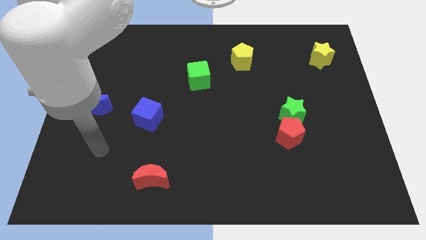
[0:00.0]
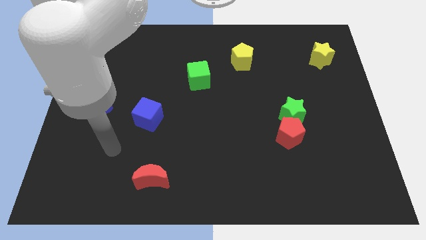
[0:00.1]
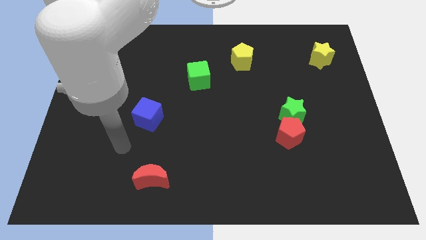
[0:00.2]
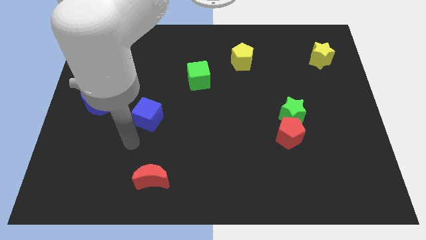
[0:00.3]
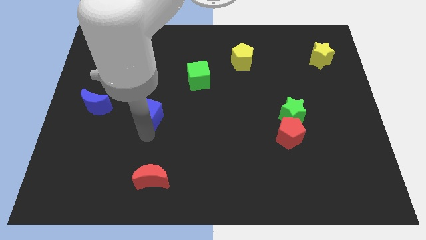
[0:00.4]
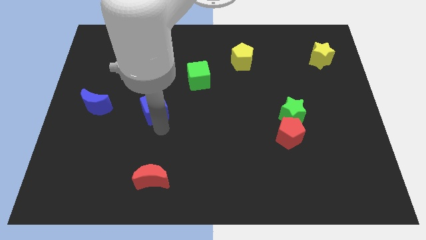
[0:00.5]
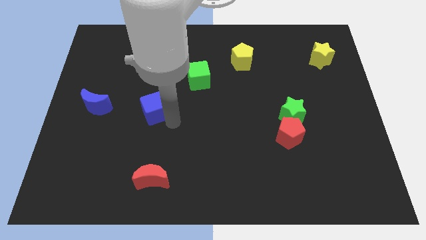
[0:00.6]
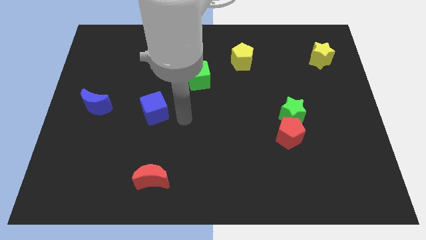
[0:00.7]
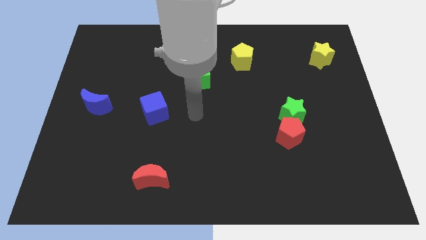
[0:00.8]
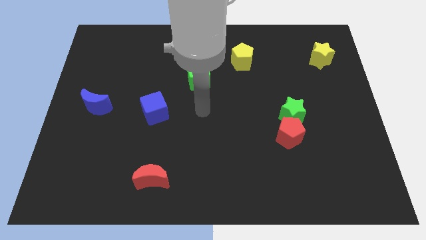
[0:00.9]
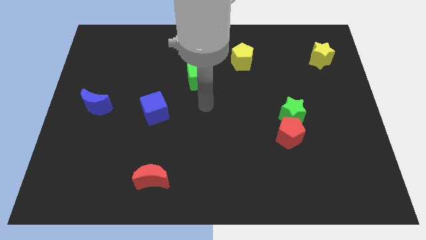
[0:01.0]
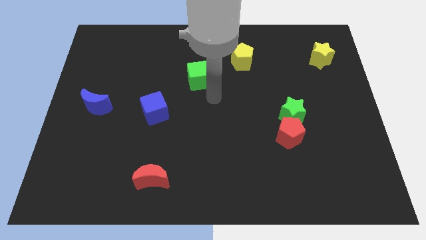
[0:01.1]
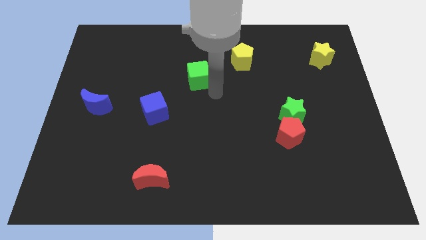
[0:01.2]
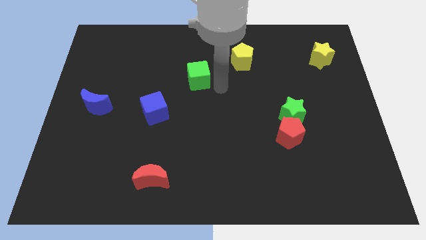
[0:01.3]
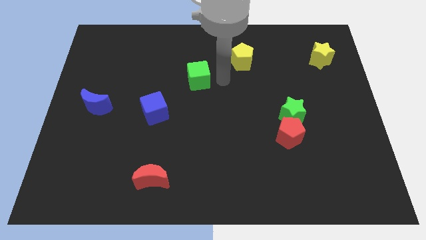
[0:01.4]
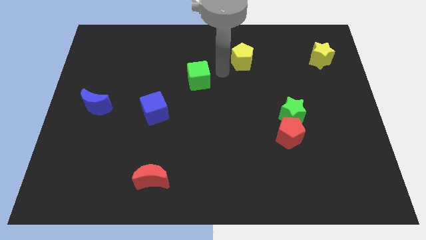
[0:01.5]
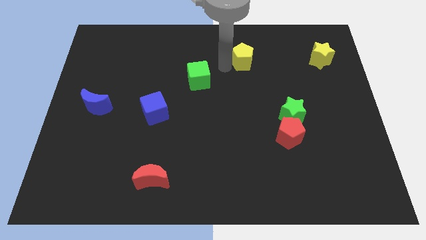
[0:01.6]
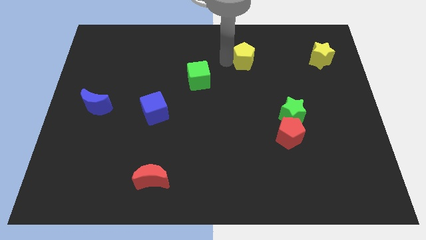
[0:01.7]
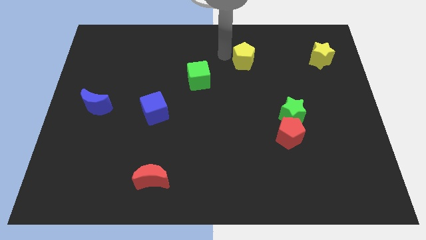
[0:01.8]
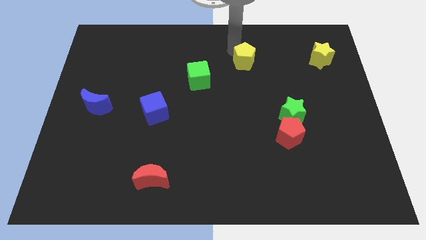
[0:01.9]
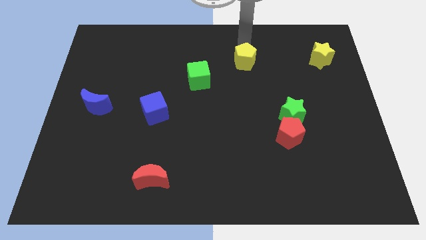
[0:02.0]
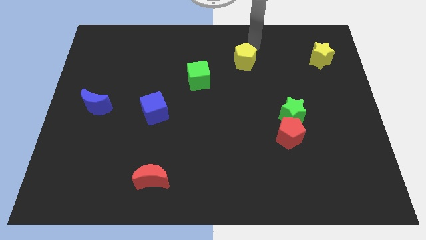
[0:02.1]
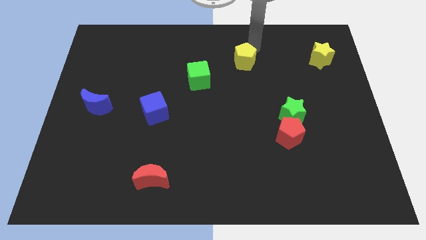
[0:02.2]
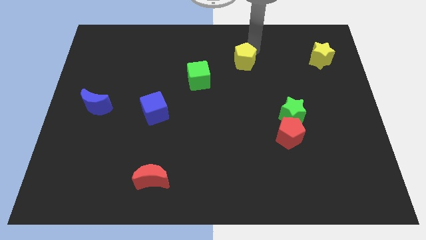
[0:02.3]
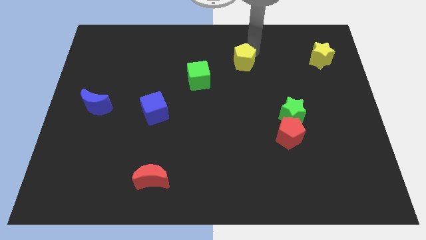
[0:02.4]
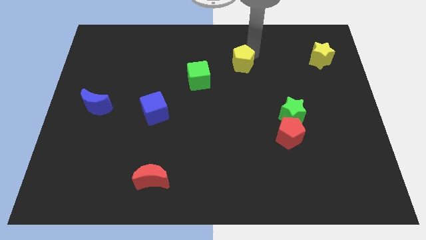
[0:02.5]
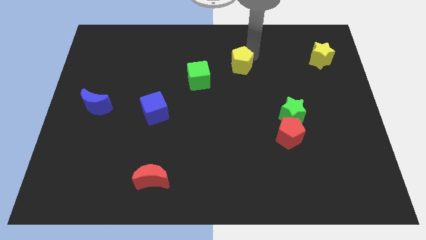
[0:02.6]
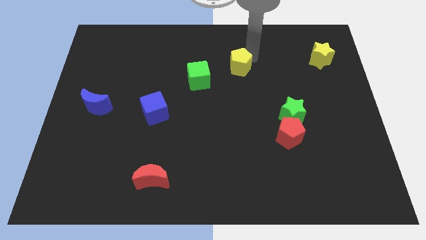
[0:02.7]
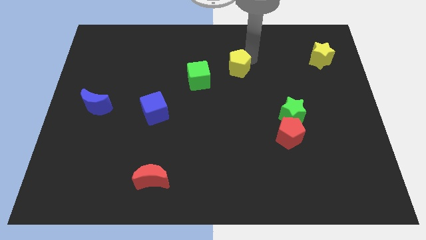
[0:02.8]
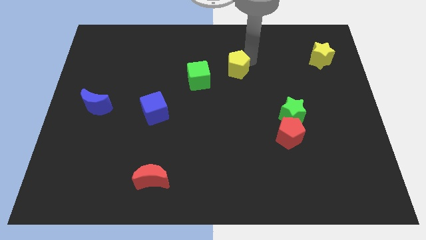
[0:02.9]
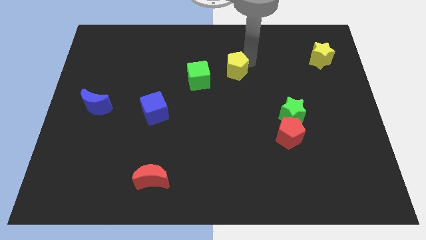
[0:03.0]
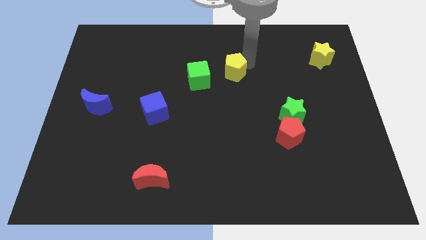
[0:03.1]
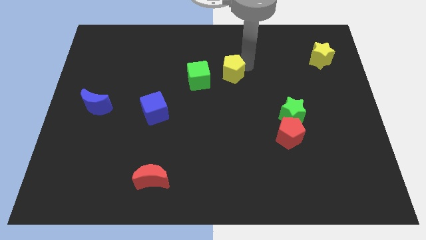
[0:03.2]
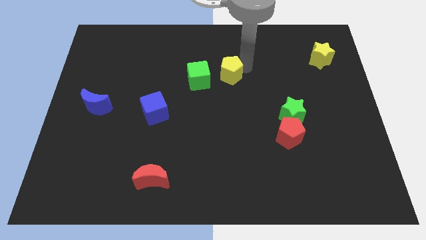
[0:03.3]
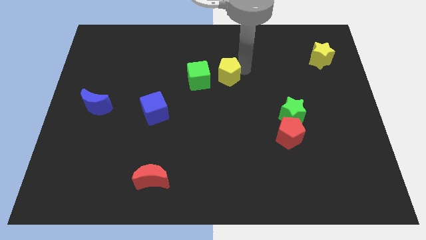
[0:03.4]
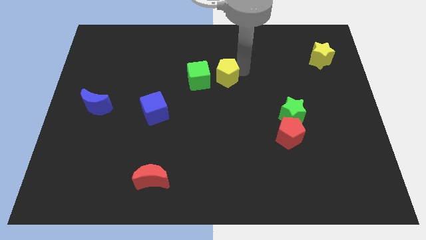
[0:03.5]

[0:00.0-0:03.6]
move the yellow pentagon a little bit down and left

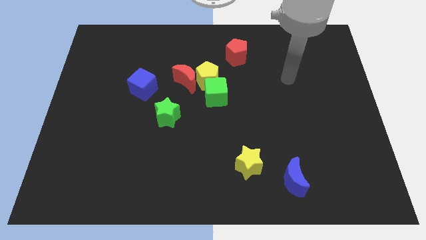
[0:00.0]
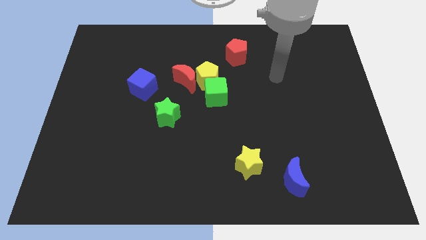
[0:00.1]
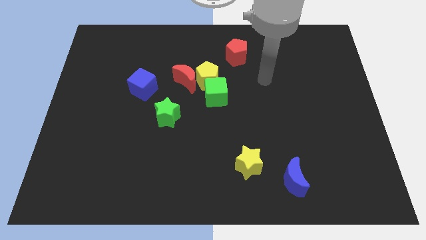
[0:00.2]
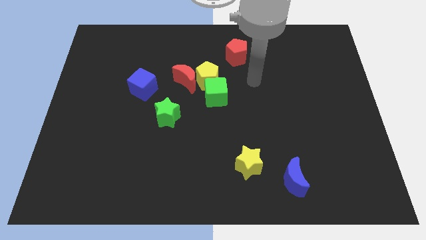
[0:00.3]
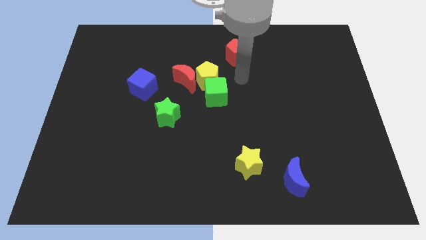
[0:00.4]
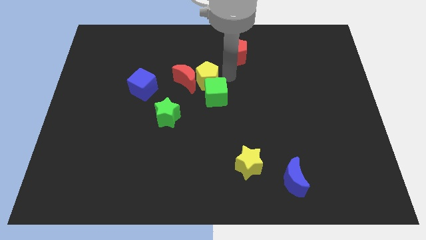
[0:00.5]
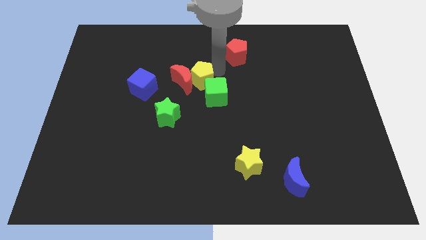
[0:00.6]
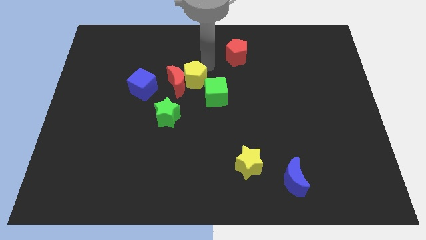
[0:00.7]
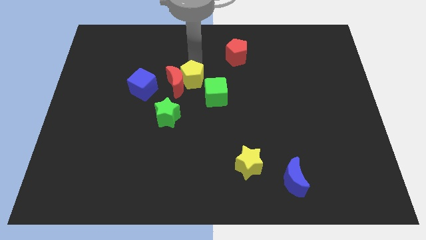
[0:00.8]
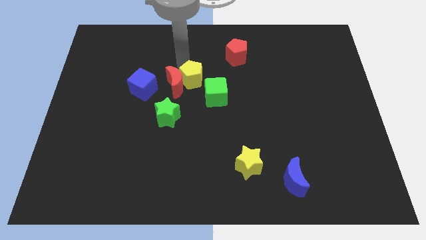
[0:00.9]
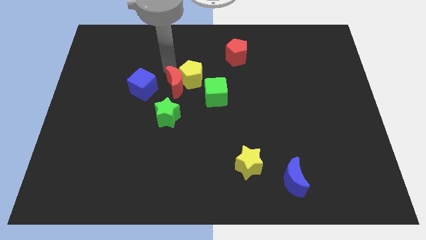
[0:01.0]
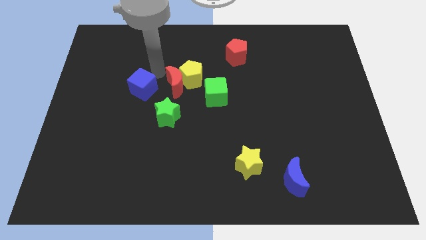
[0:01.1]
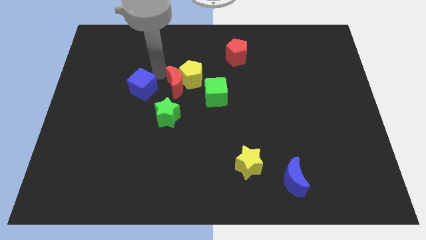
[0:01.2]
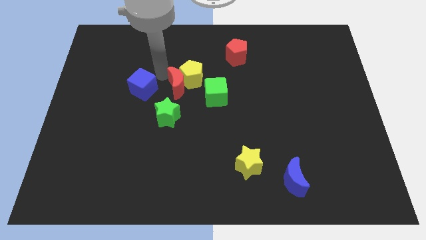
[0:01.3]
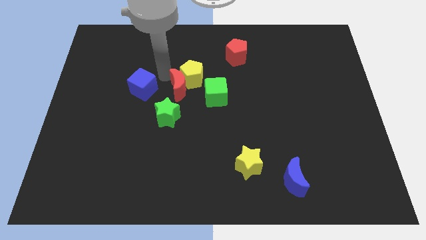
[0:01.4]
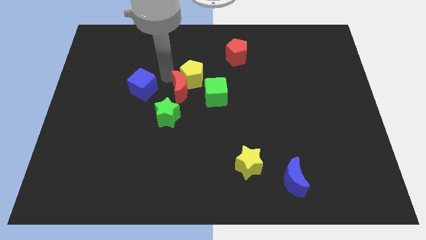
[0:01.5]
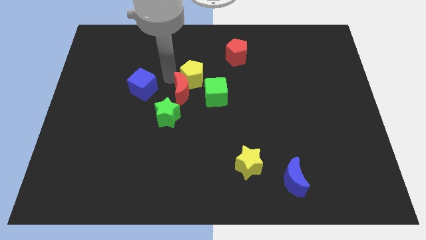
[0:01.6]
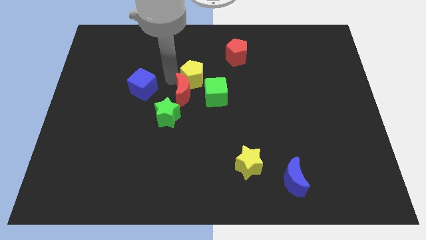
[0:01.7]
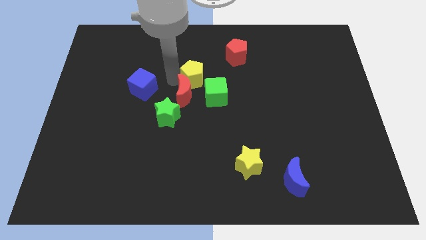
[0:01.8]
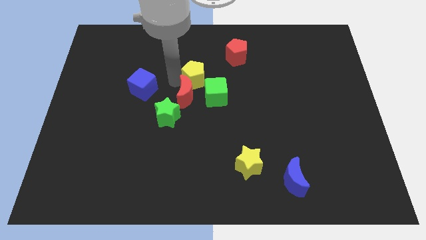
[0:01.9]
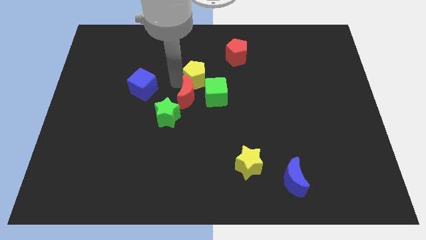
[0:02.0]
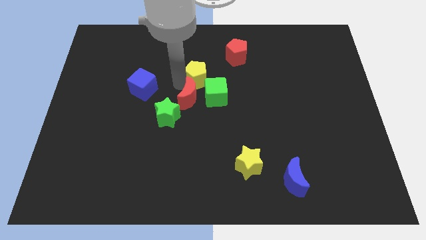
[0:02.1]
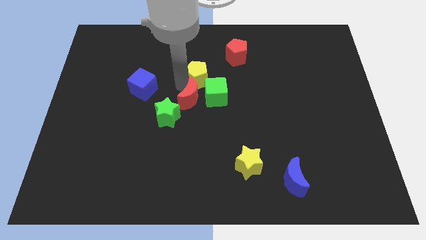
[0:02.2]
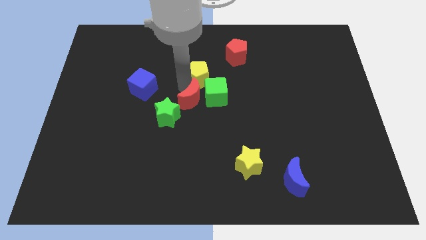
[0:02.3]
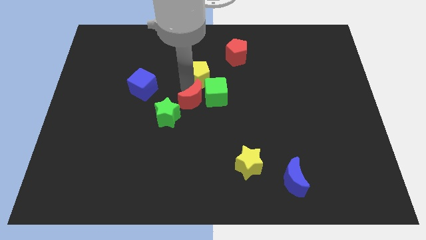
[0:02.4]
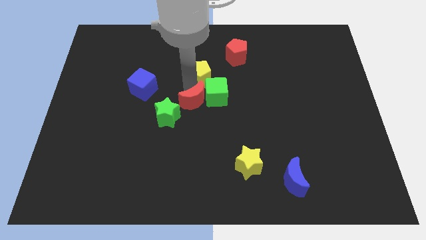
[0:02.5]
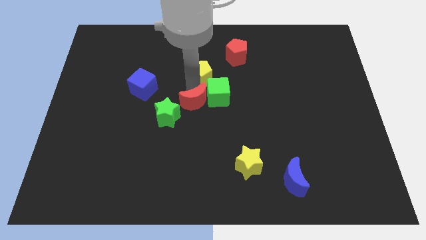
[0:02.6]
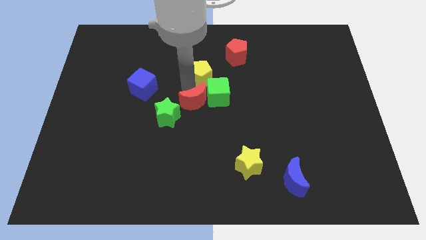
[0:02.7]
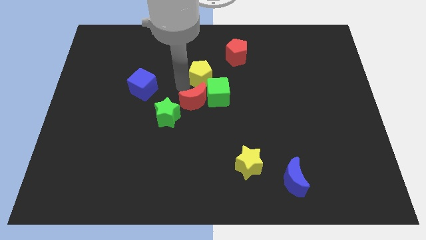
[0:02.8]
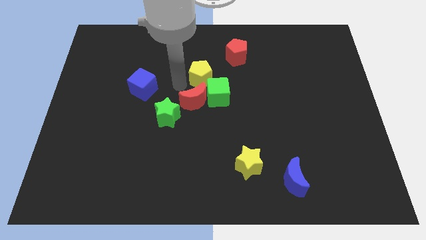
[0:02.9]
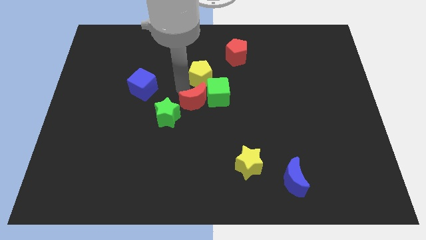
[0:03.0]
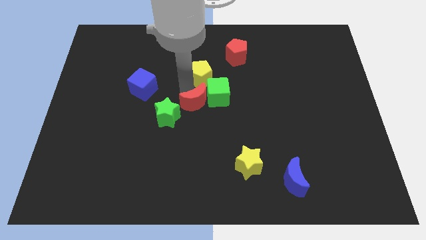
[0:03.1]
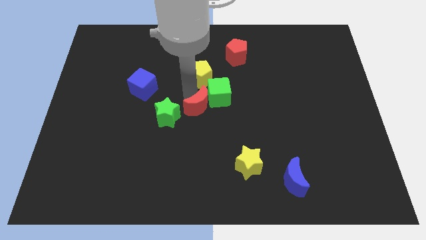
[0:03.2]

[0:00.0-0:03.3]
slightly push the red moon down and right diagonally

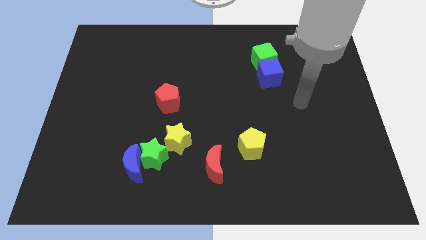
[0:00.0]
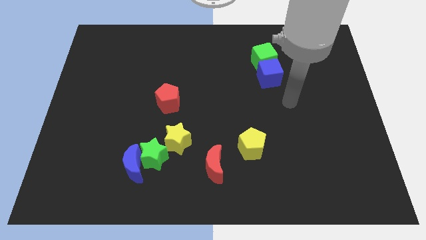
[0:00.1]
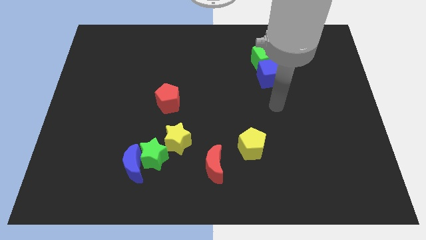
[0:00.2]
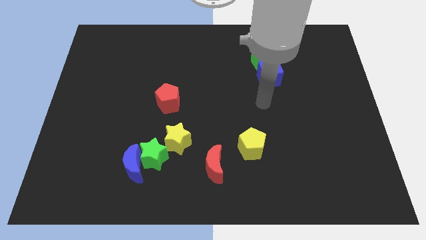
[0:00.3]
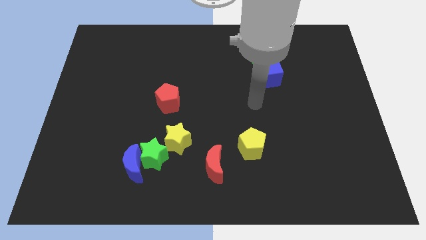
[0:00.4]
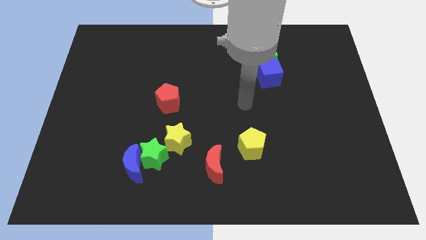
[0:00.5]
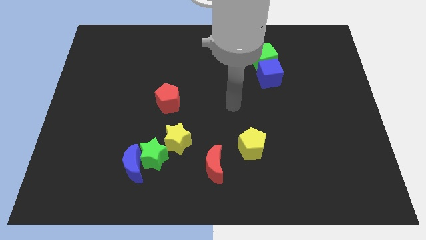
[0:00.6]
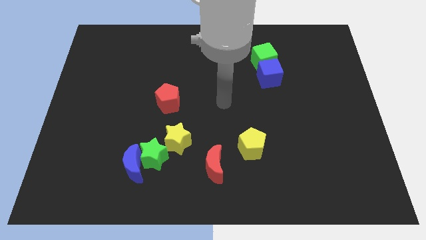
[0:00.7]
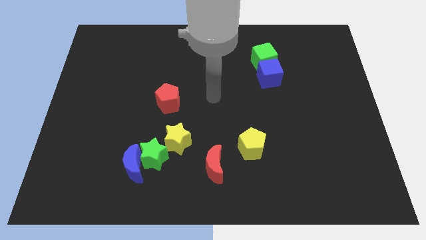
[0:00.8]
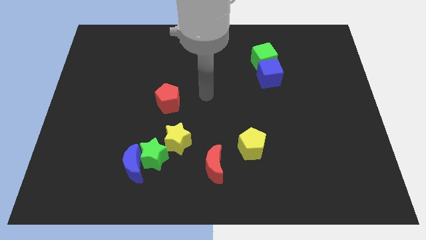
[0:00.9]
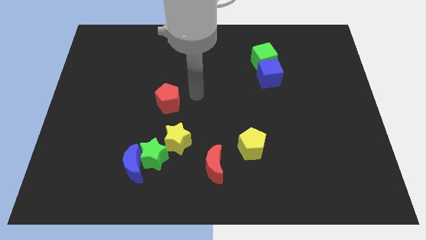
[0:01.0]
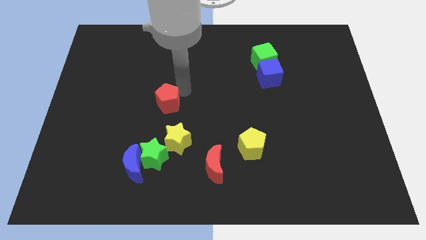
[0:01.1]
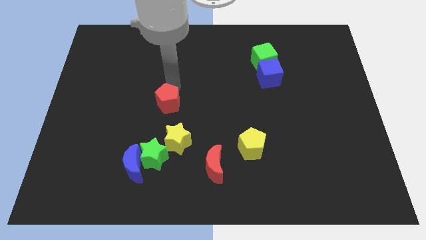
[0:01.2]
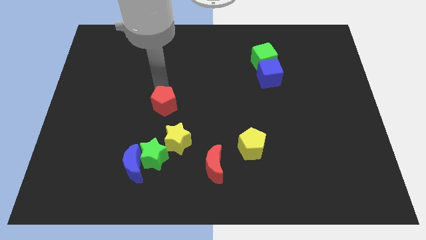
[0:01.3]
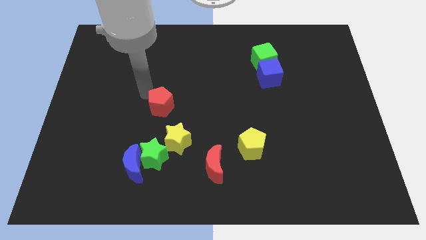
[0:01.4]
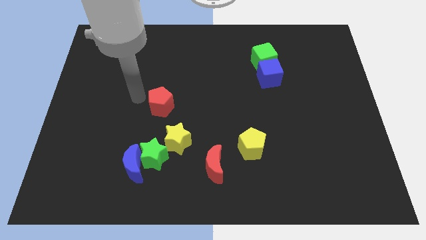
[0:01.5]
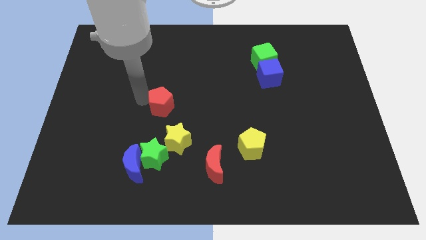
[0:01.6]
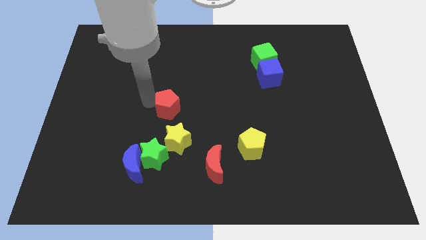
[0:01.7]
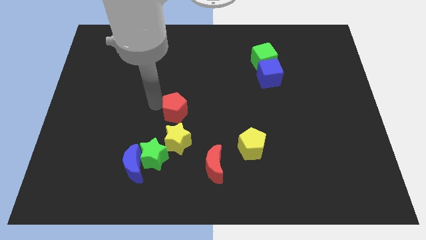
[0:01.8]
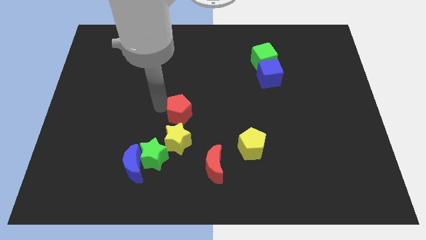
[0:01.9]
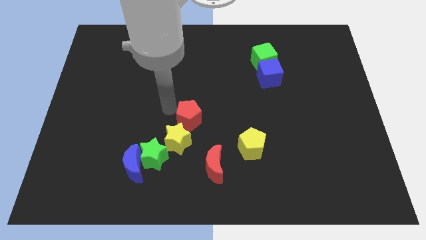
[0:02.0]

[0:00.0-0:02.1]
slightly push the red pentagon down and to the right
